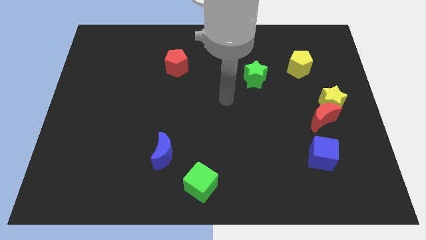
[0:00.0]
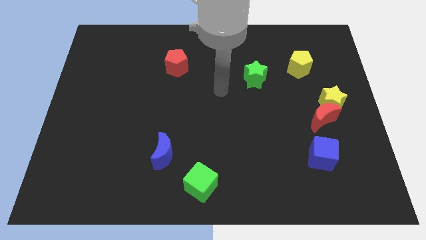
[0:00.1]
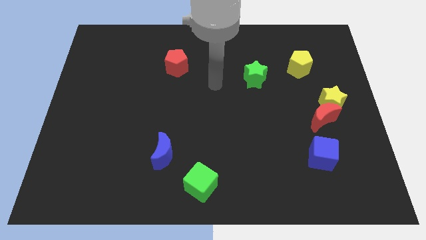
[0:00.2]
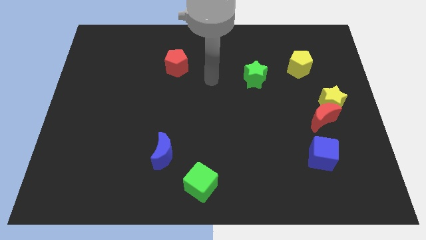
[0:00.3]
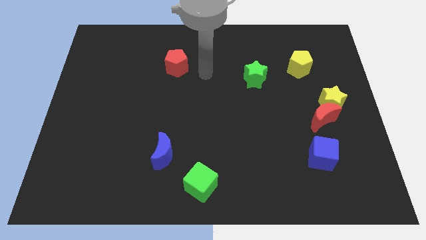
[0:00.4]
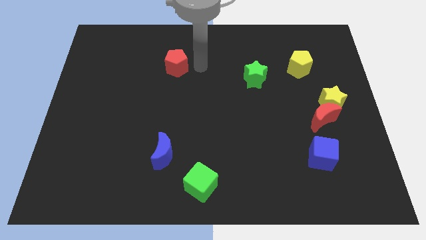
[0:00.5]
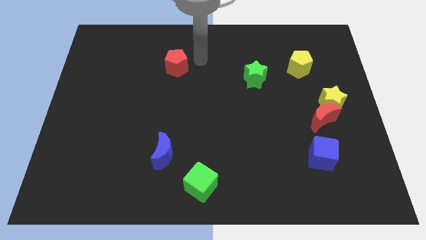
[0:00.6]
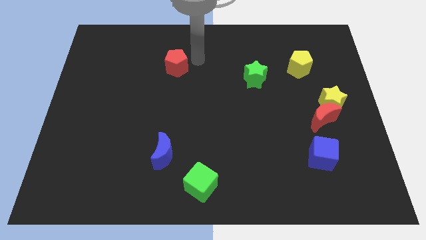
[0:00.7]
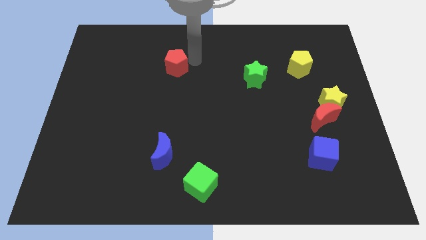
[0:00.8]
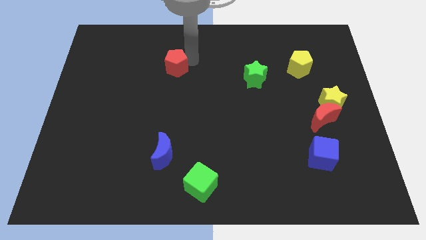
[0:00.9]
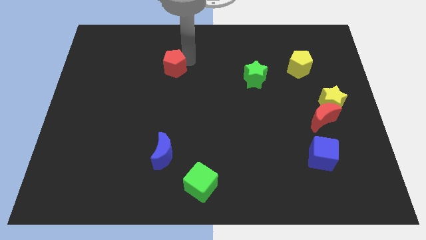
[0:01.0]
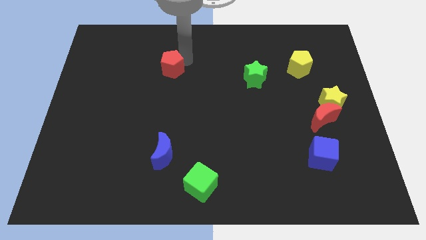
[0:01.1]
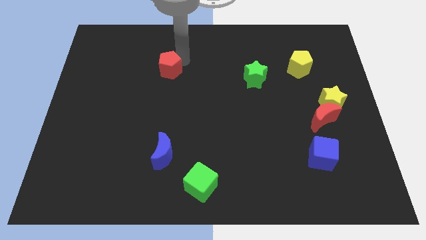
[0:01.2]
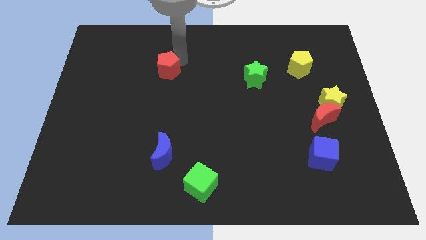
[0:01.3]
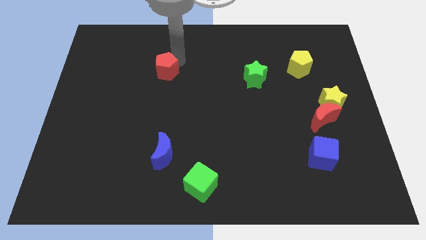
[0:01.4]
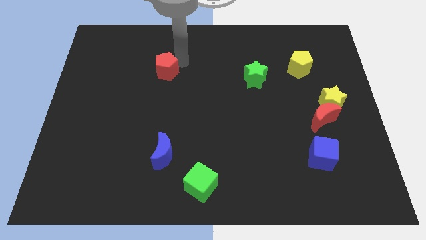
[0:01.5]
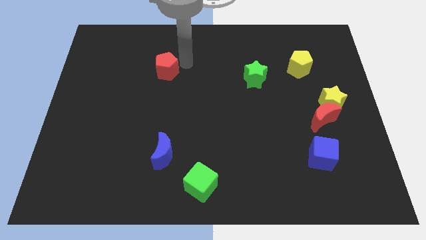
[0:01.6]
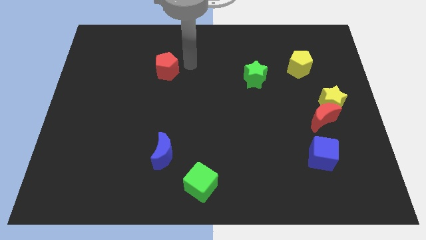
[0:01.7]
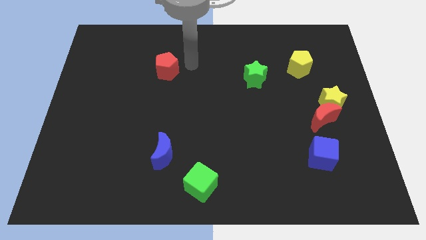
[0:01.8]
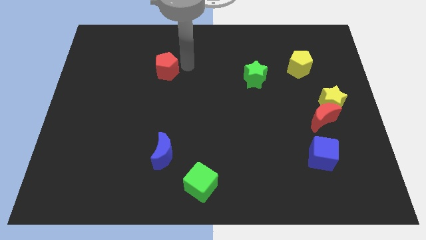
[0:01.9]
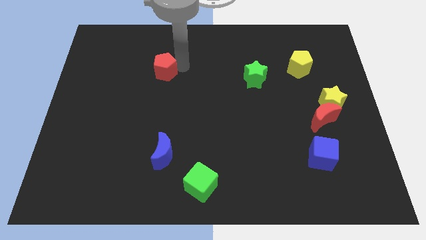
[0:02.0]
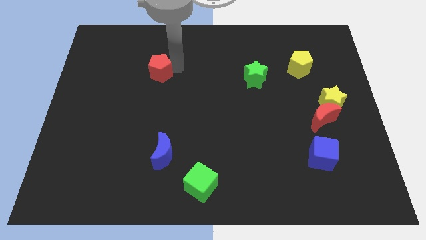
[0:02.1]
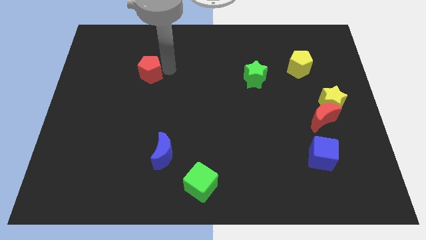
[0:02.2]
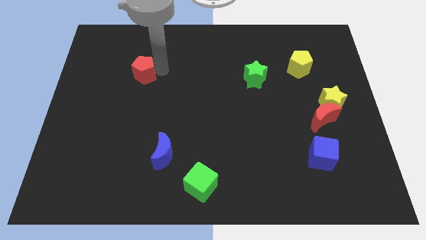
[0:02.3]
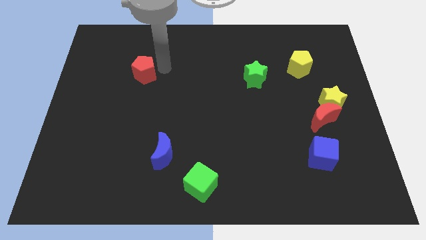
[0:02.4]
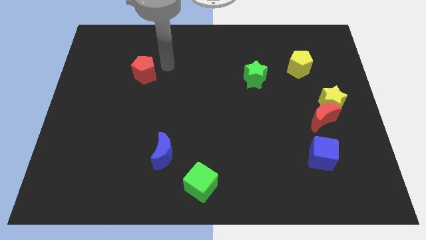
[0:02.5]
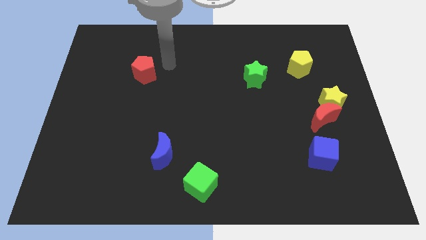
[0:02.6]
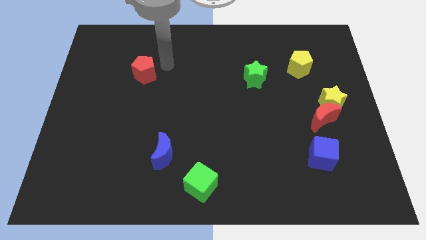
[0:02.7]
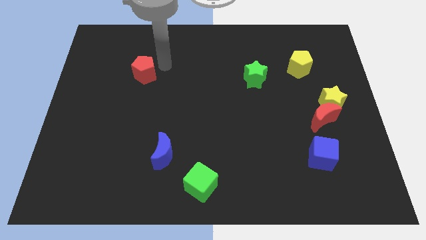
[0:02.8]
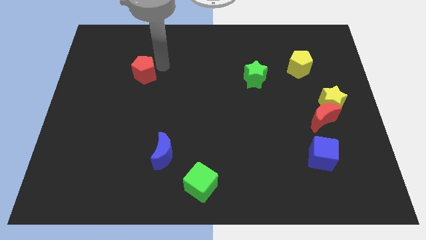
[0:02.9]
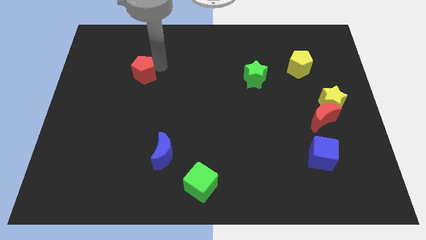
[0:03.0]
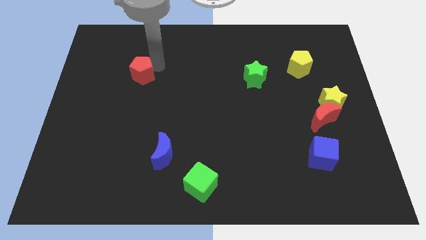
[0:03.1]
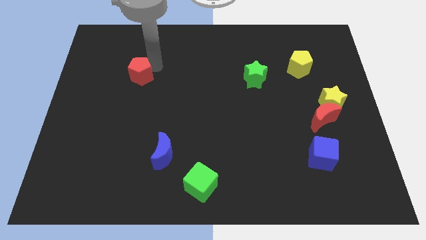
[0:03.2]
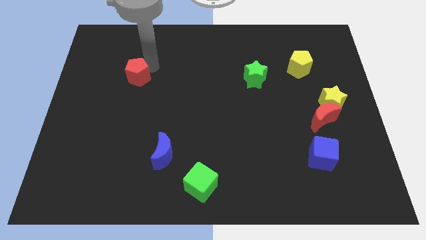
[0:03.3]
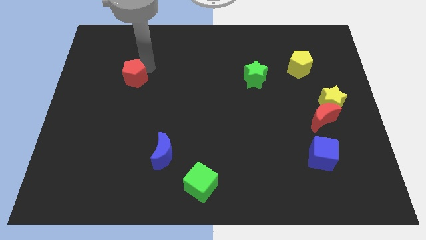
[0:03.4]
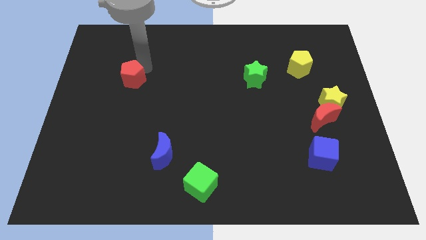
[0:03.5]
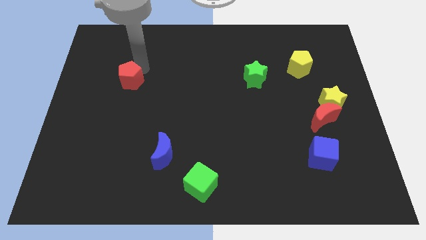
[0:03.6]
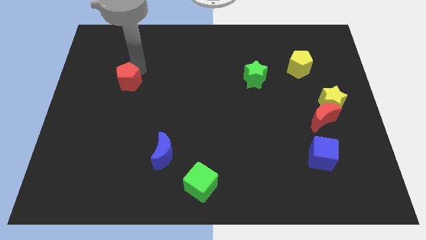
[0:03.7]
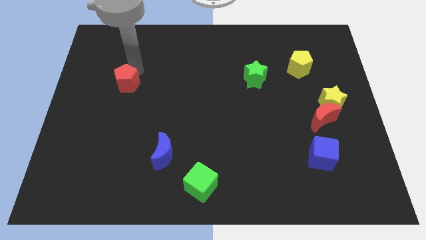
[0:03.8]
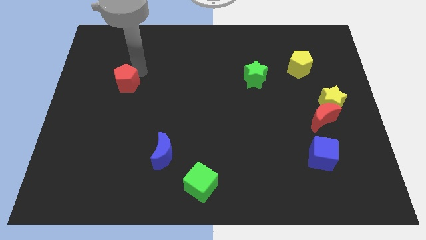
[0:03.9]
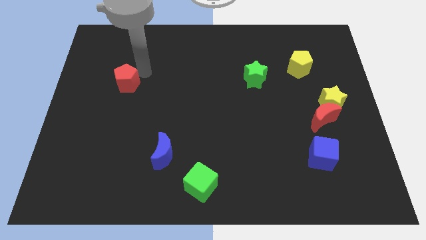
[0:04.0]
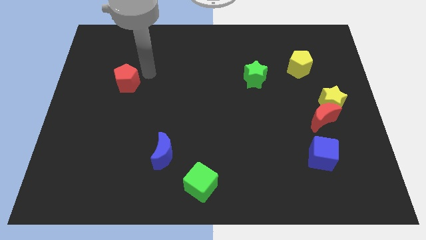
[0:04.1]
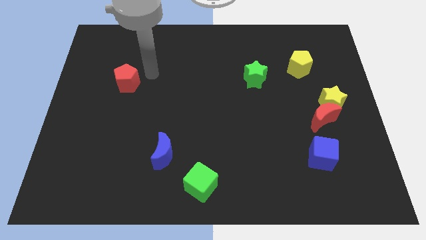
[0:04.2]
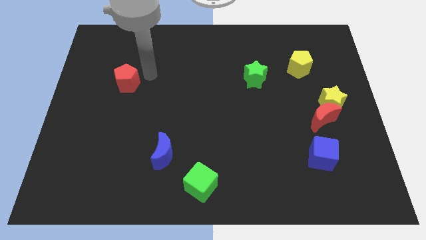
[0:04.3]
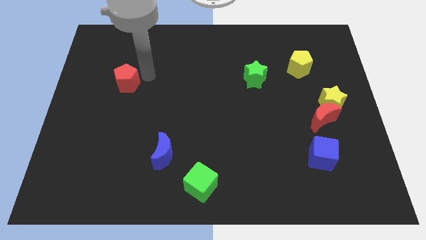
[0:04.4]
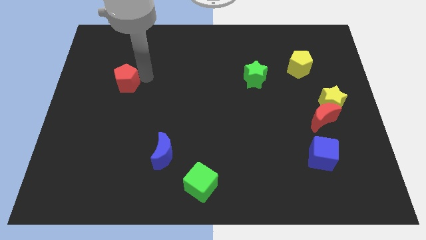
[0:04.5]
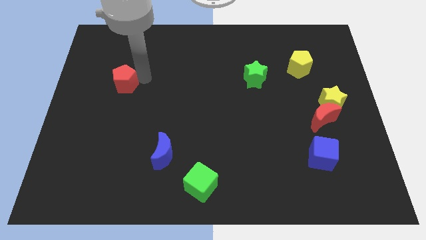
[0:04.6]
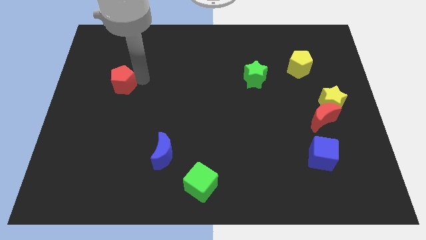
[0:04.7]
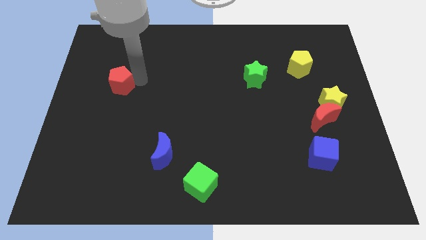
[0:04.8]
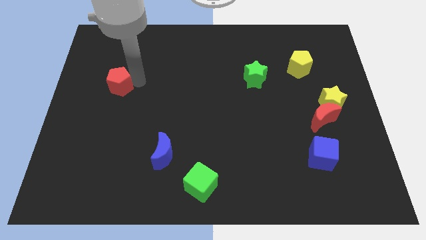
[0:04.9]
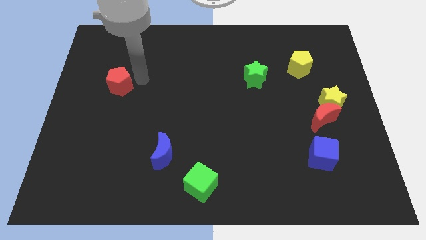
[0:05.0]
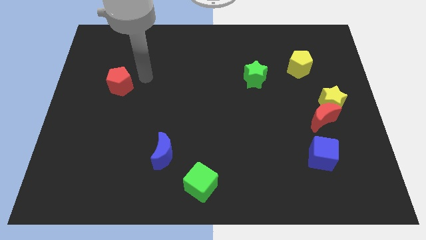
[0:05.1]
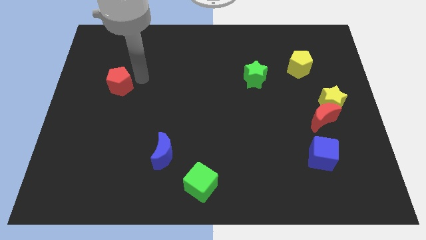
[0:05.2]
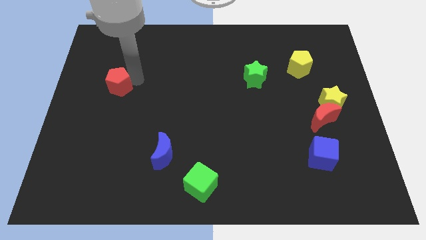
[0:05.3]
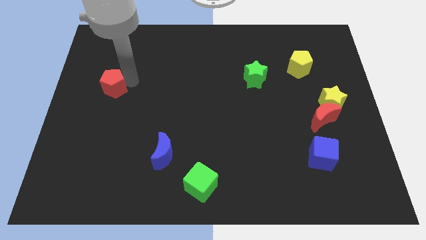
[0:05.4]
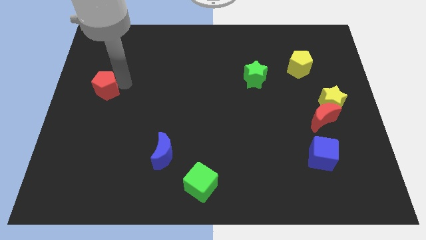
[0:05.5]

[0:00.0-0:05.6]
put the red pentagon to the center left

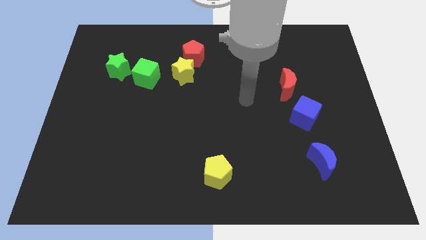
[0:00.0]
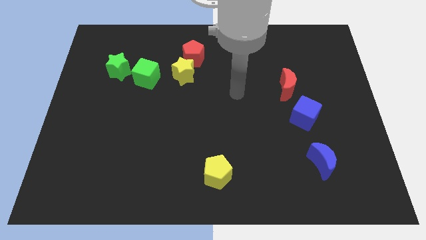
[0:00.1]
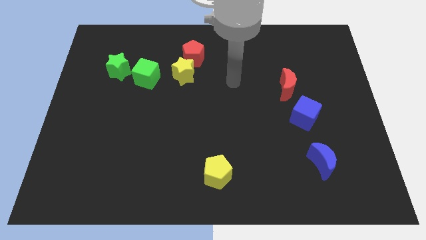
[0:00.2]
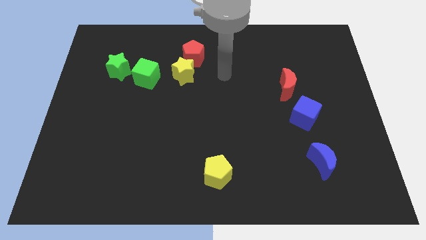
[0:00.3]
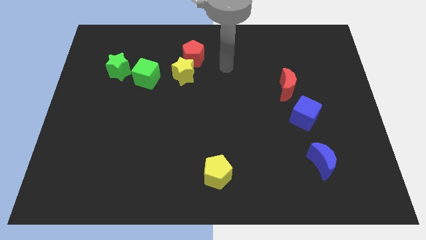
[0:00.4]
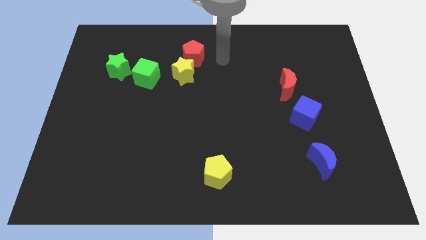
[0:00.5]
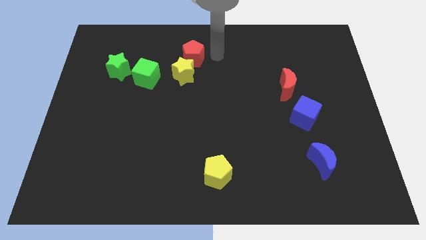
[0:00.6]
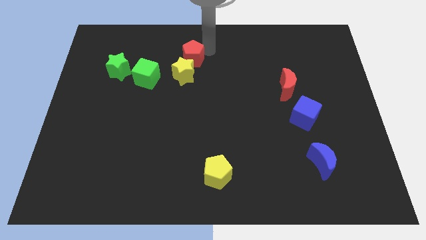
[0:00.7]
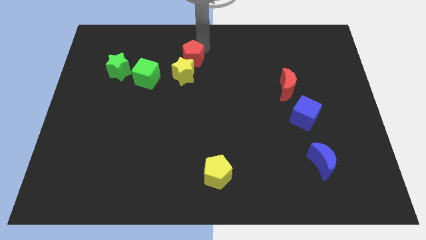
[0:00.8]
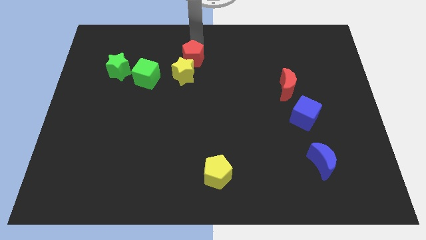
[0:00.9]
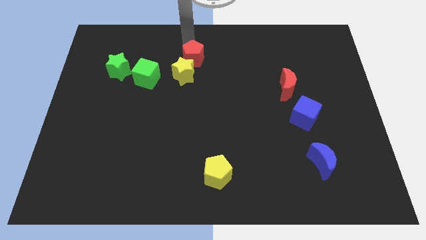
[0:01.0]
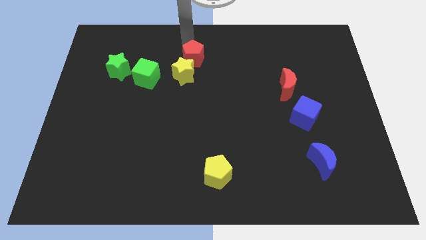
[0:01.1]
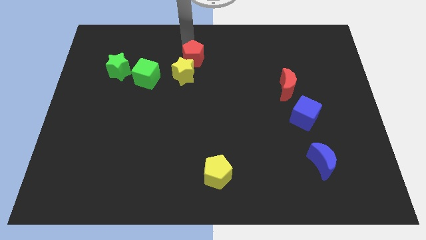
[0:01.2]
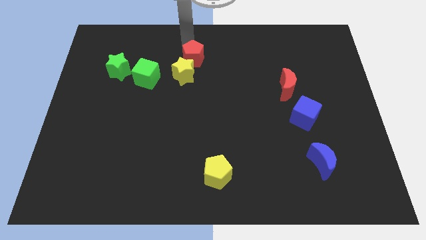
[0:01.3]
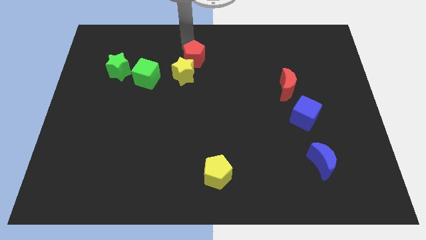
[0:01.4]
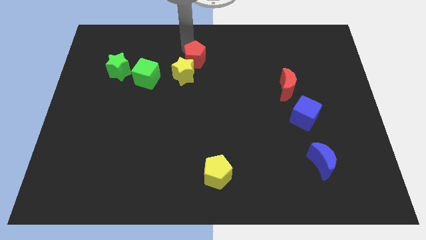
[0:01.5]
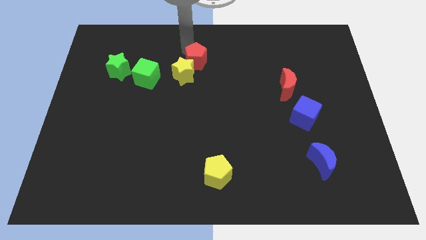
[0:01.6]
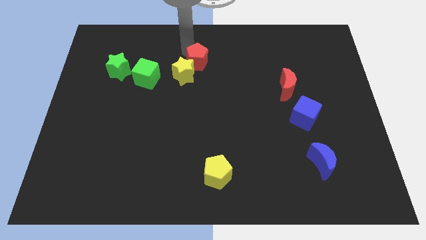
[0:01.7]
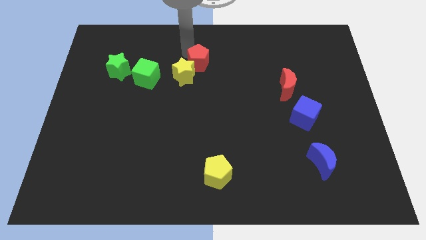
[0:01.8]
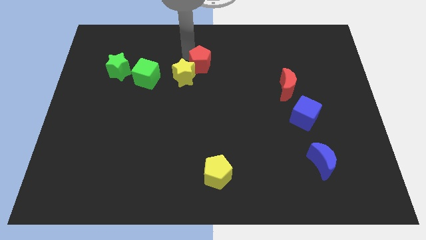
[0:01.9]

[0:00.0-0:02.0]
put the red pentagon to the middle of the board
